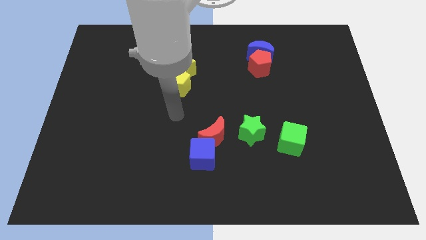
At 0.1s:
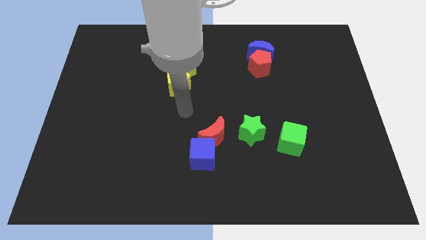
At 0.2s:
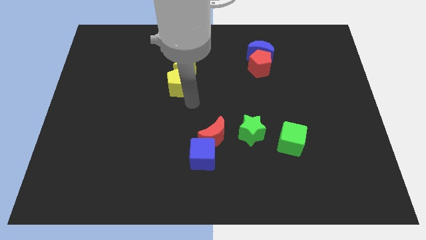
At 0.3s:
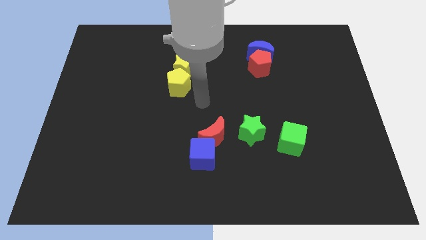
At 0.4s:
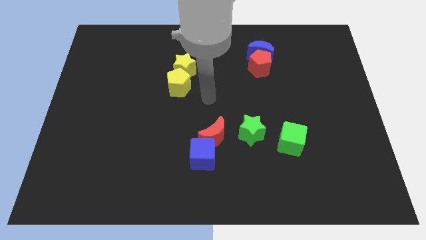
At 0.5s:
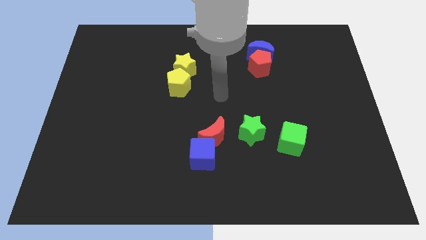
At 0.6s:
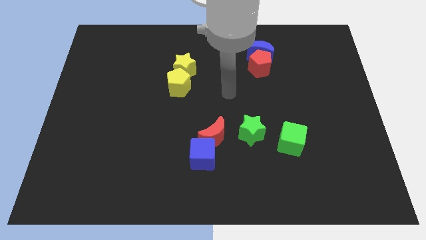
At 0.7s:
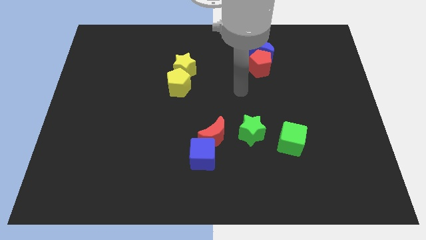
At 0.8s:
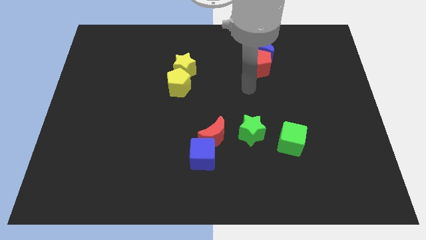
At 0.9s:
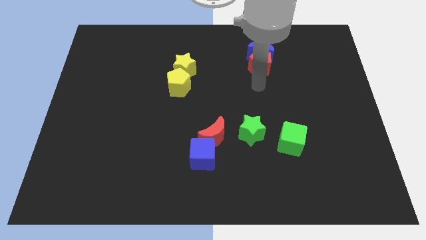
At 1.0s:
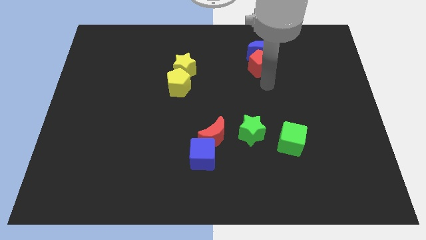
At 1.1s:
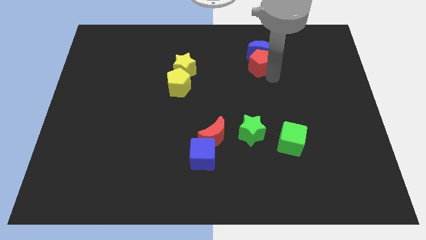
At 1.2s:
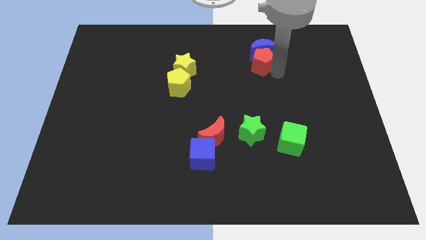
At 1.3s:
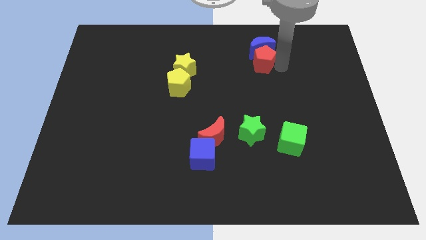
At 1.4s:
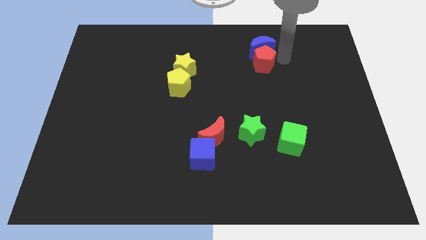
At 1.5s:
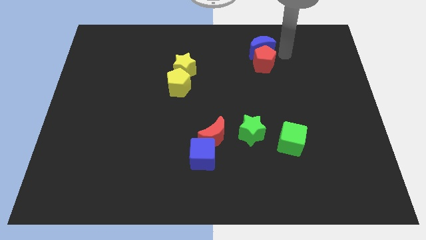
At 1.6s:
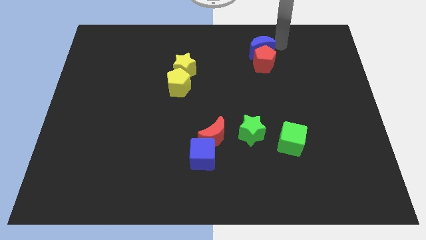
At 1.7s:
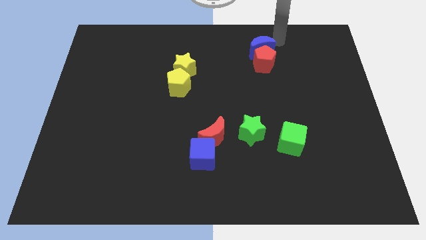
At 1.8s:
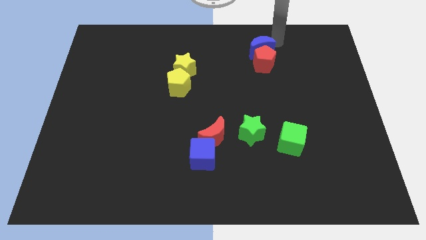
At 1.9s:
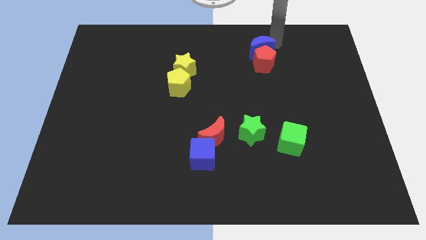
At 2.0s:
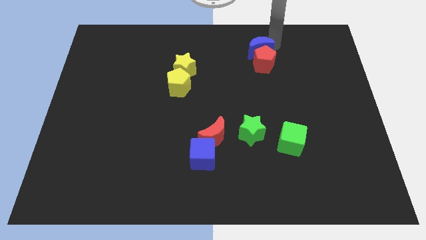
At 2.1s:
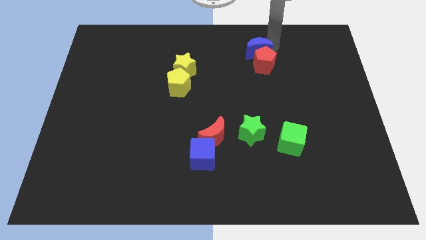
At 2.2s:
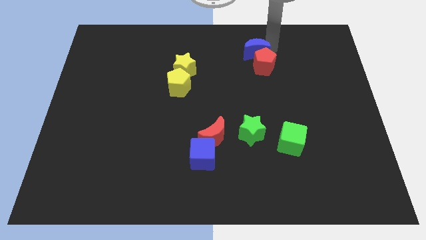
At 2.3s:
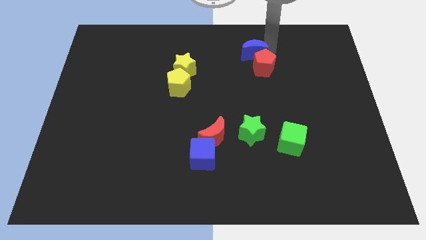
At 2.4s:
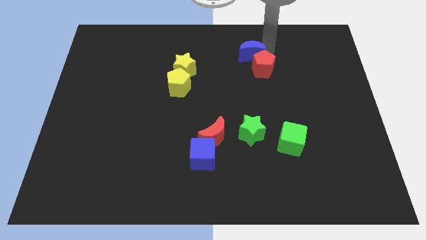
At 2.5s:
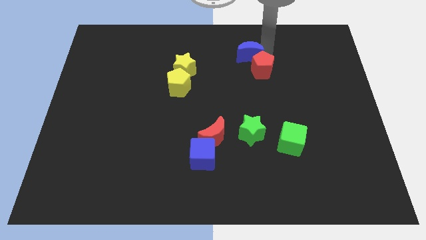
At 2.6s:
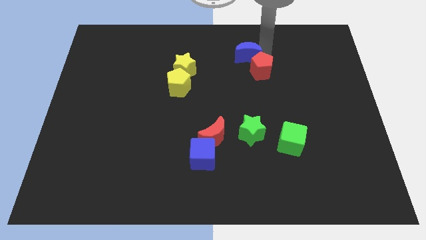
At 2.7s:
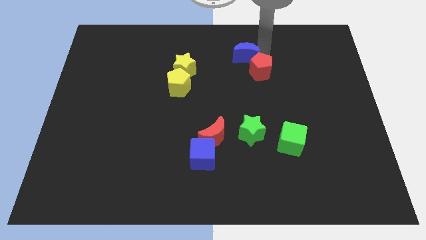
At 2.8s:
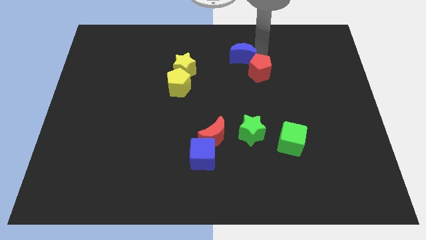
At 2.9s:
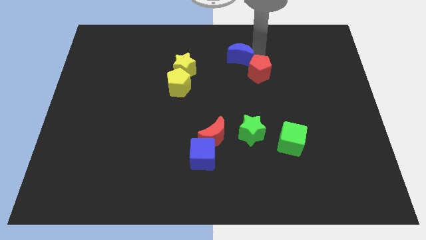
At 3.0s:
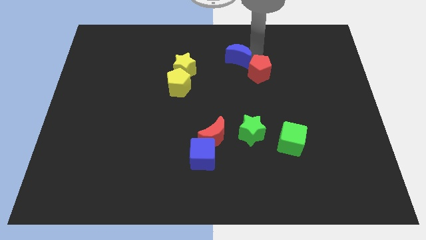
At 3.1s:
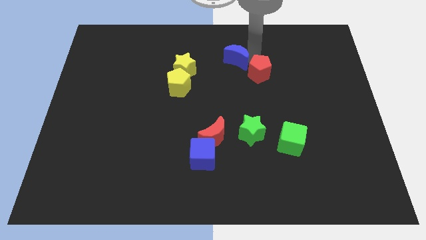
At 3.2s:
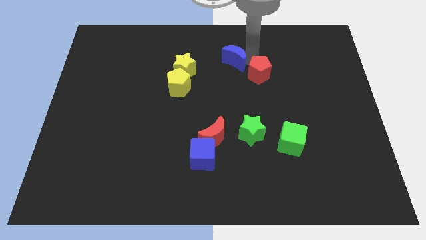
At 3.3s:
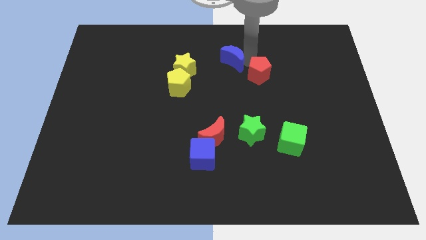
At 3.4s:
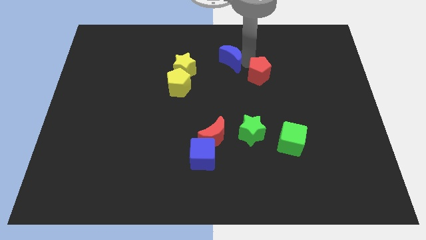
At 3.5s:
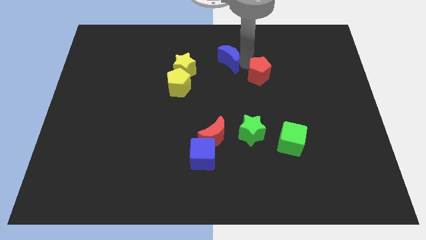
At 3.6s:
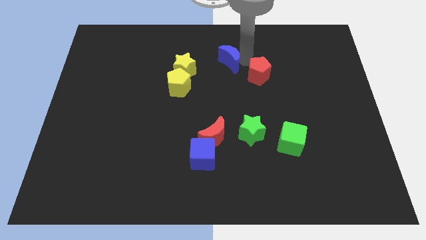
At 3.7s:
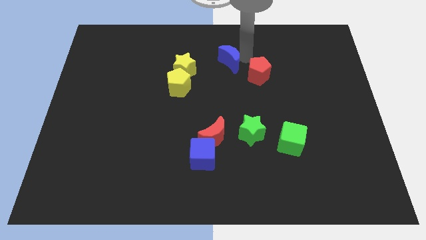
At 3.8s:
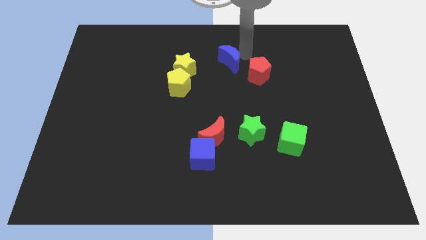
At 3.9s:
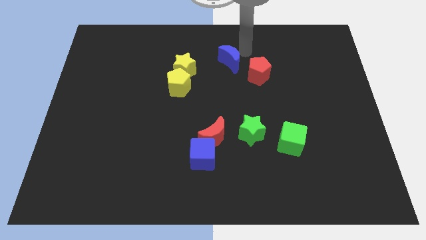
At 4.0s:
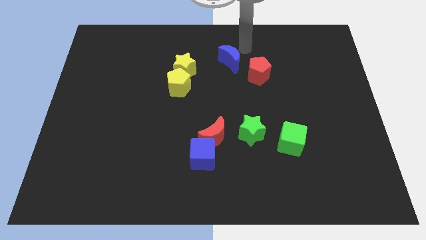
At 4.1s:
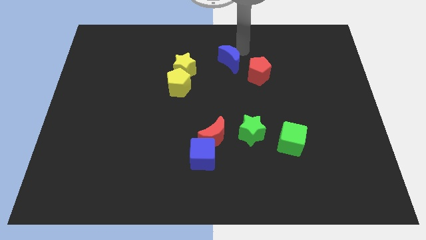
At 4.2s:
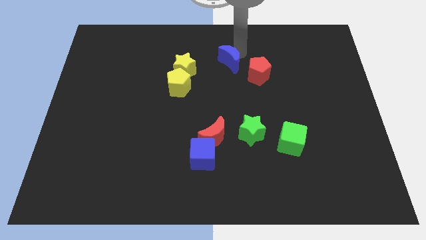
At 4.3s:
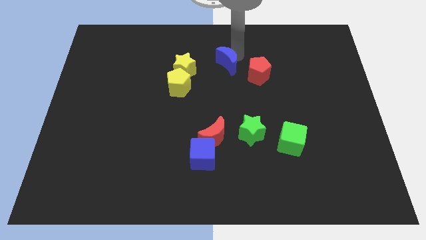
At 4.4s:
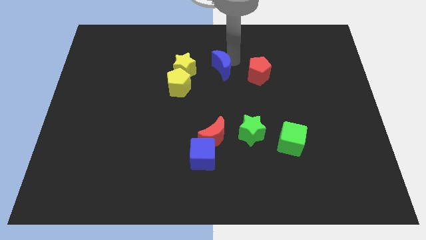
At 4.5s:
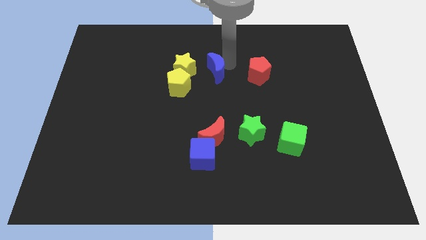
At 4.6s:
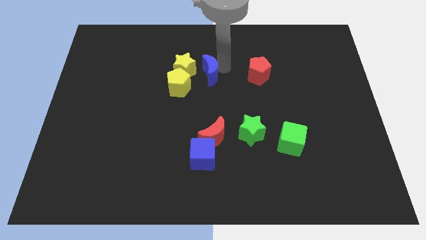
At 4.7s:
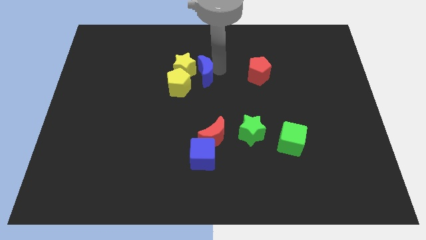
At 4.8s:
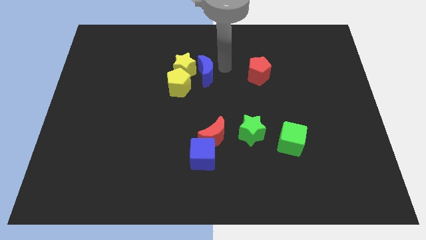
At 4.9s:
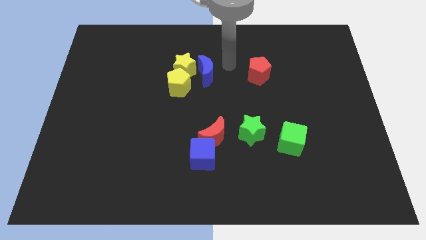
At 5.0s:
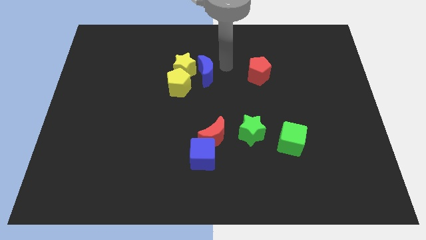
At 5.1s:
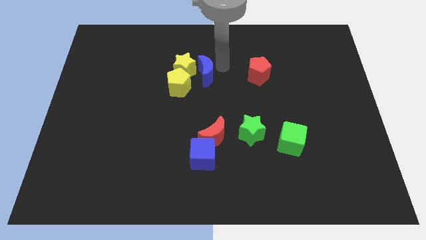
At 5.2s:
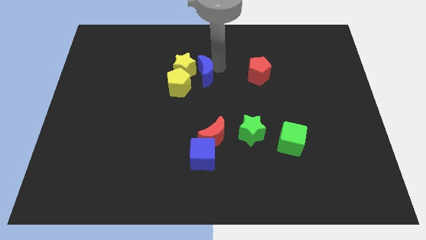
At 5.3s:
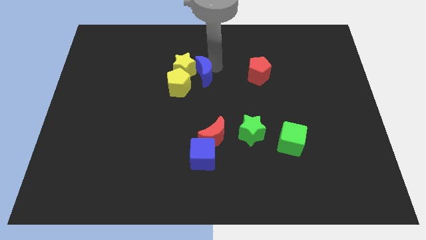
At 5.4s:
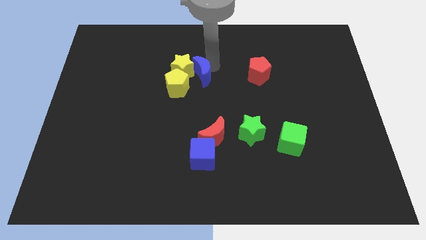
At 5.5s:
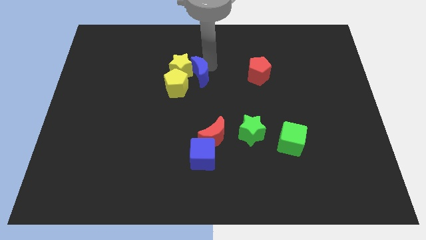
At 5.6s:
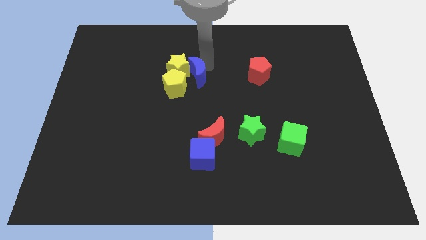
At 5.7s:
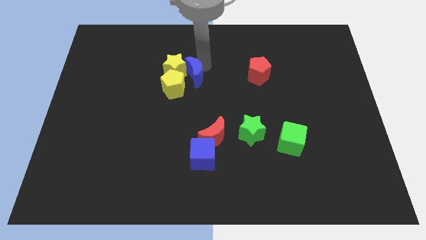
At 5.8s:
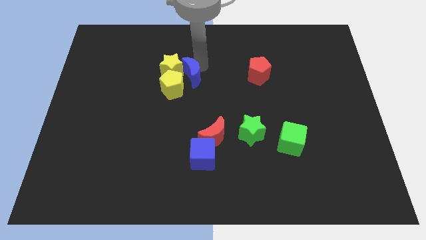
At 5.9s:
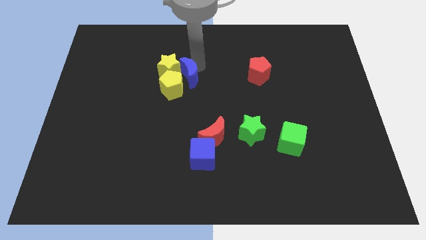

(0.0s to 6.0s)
slide the blue moon close to the yellow pentagon
